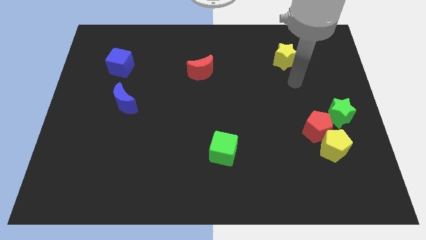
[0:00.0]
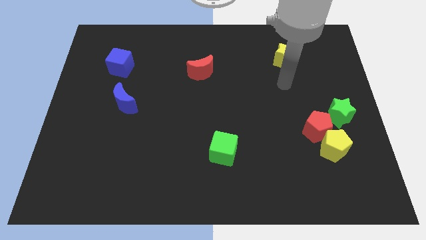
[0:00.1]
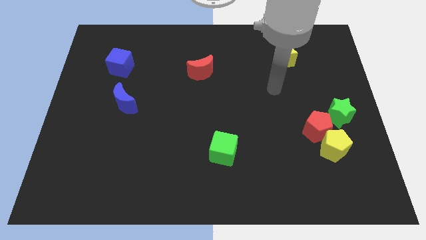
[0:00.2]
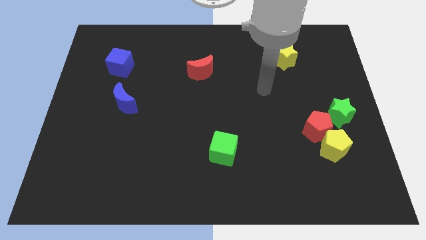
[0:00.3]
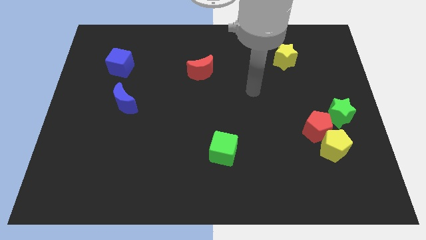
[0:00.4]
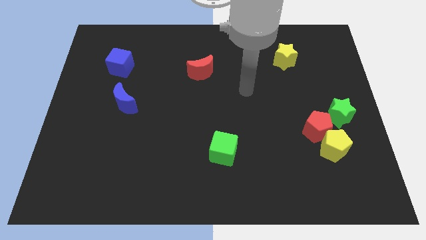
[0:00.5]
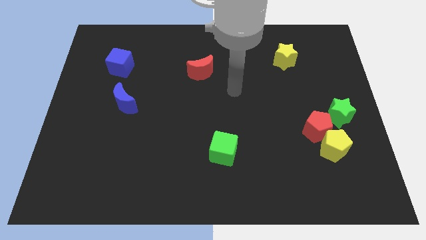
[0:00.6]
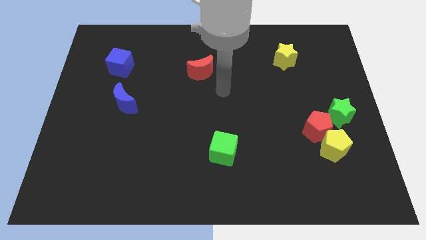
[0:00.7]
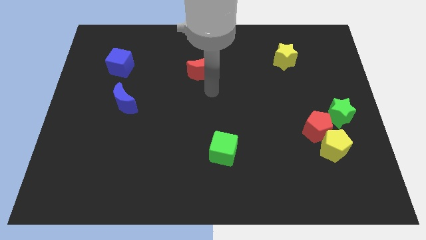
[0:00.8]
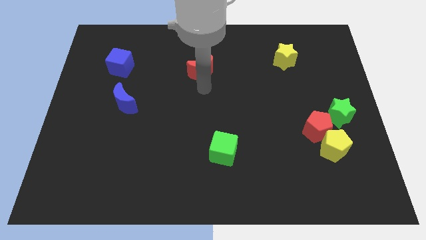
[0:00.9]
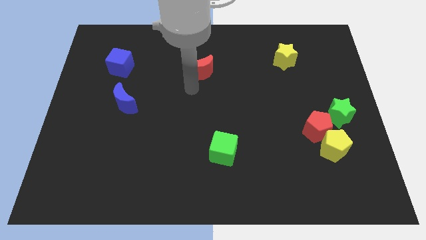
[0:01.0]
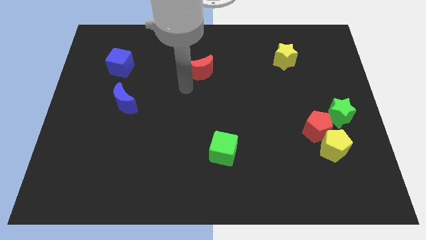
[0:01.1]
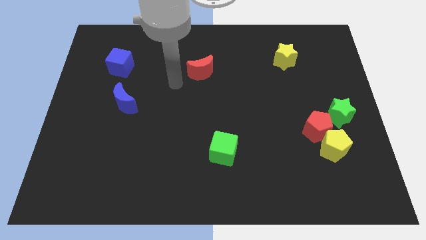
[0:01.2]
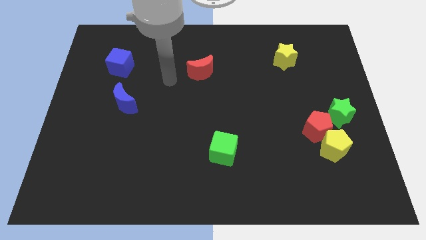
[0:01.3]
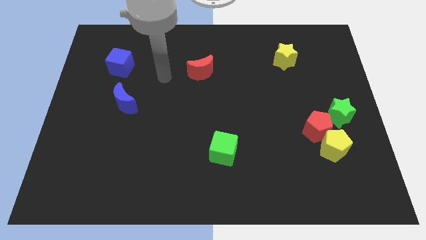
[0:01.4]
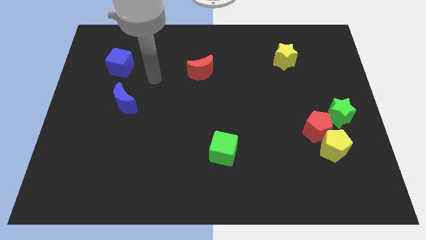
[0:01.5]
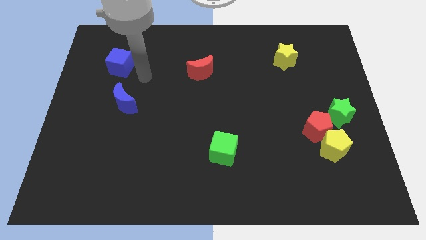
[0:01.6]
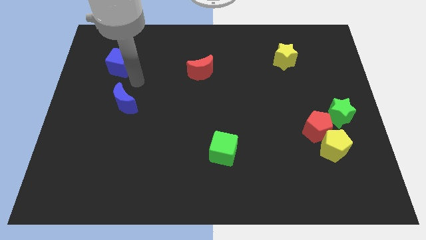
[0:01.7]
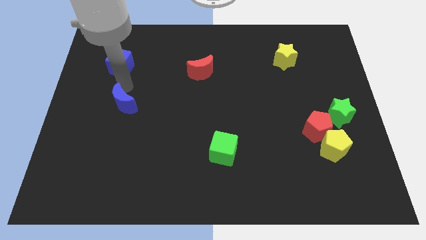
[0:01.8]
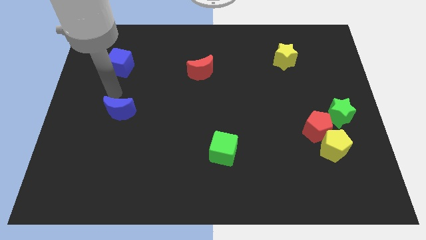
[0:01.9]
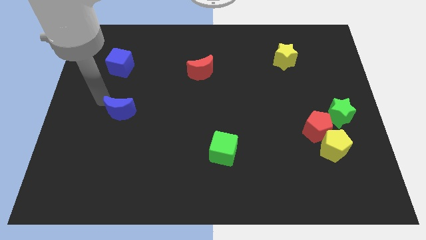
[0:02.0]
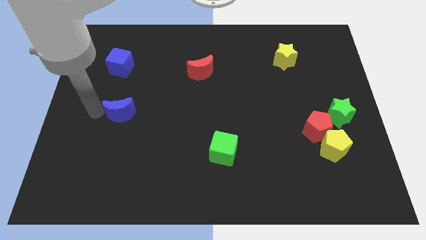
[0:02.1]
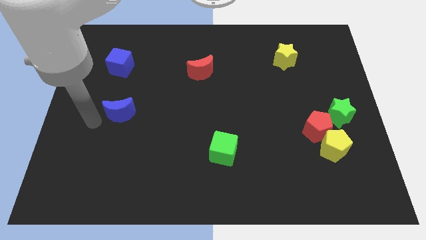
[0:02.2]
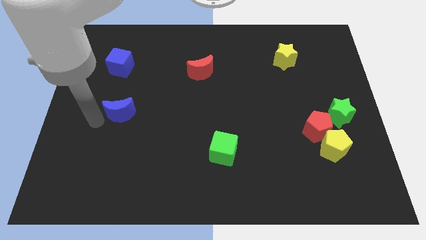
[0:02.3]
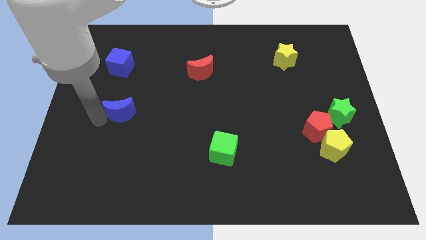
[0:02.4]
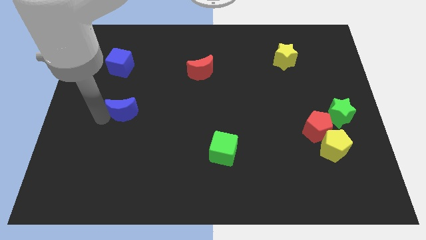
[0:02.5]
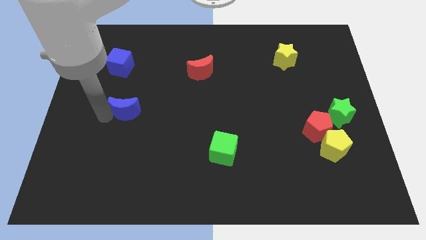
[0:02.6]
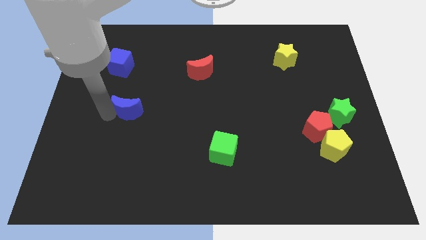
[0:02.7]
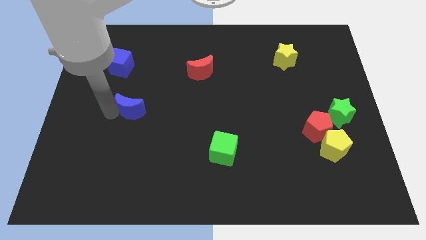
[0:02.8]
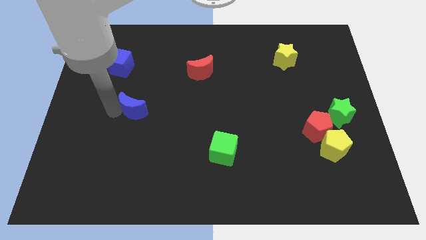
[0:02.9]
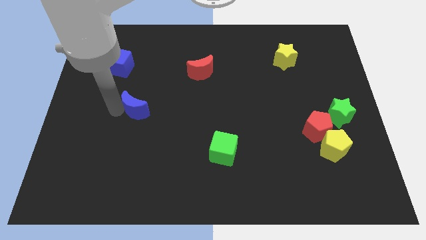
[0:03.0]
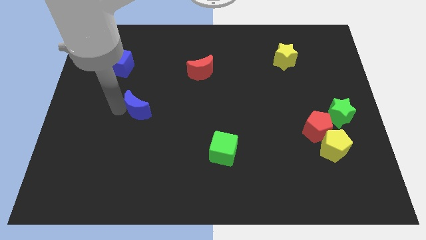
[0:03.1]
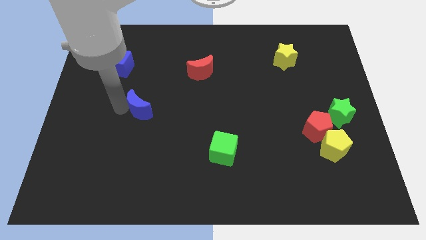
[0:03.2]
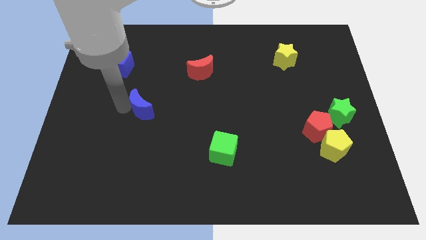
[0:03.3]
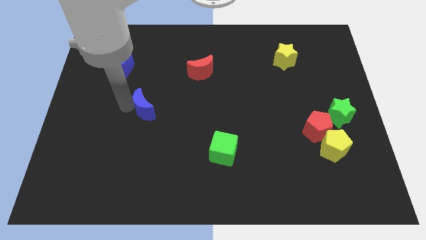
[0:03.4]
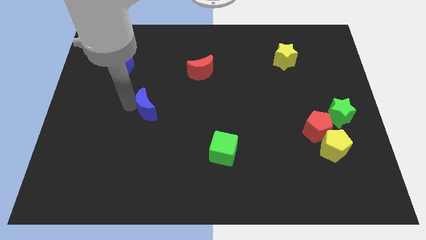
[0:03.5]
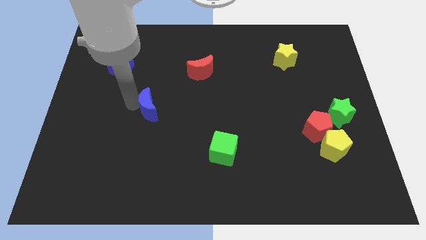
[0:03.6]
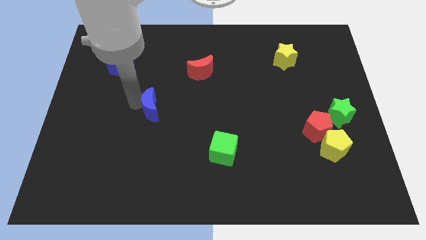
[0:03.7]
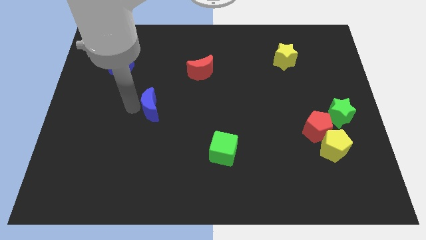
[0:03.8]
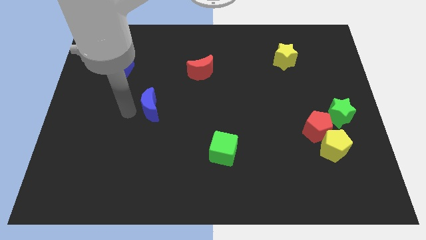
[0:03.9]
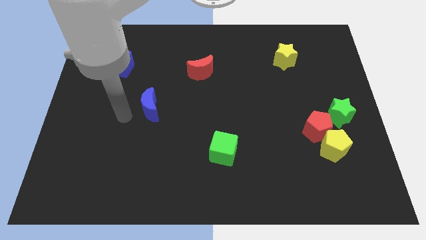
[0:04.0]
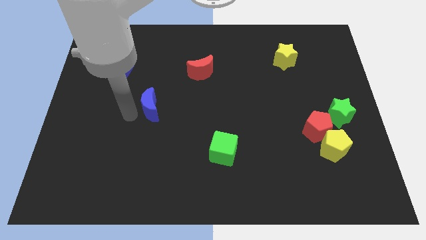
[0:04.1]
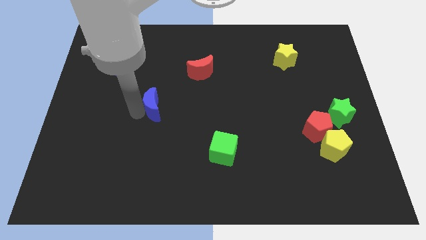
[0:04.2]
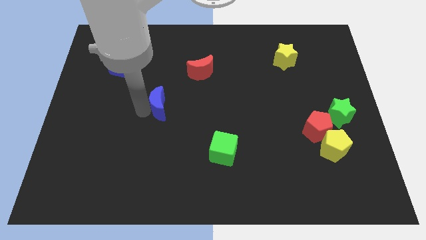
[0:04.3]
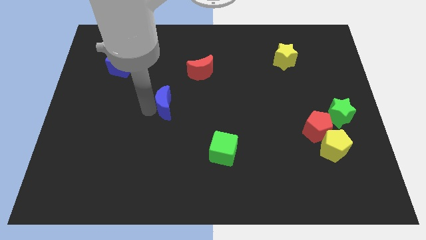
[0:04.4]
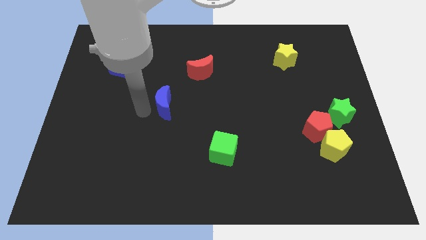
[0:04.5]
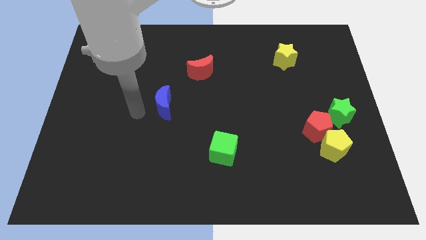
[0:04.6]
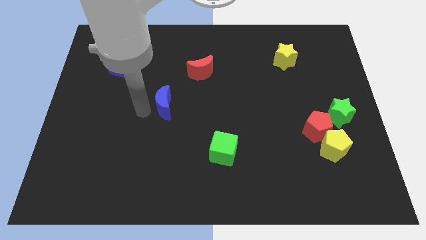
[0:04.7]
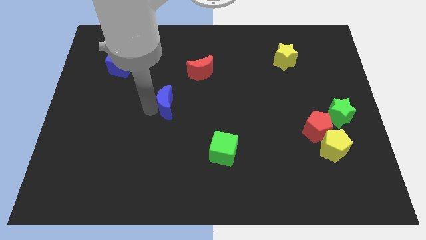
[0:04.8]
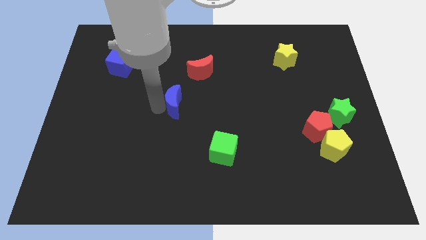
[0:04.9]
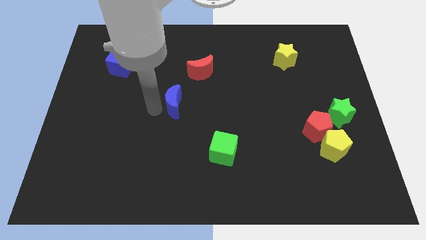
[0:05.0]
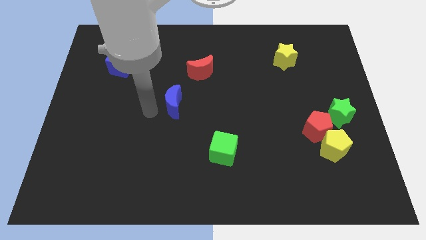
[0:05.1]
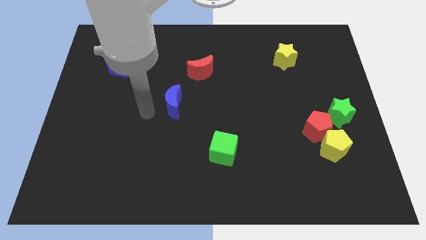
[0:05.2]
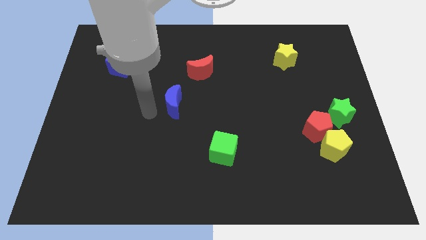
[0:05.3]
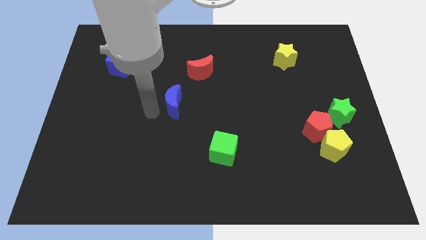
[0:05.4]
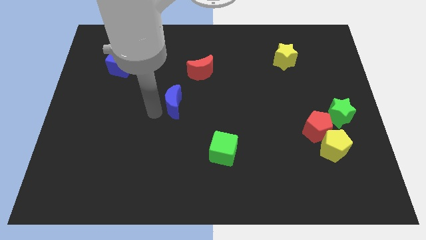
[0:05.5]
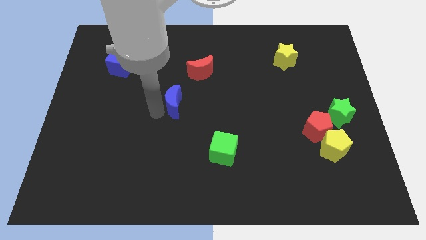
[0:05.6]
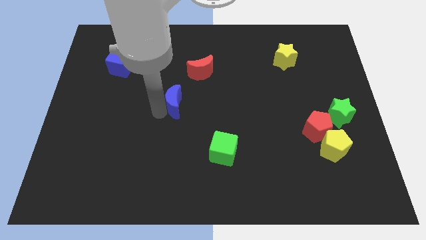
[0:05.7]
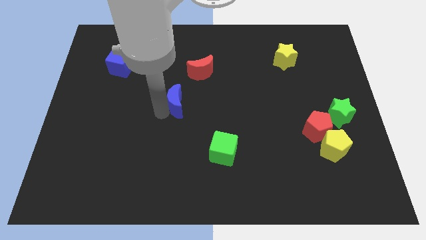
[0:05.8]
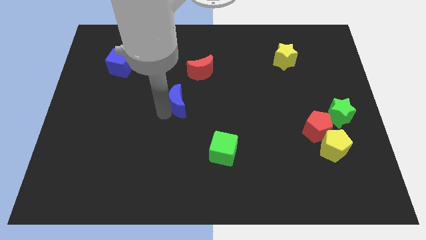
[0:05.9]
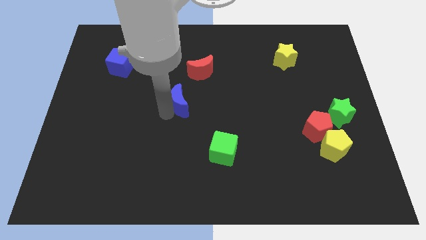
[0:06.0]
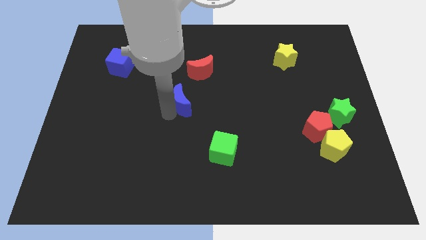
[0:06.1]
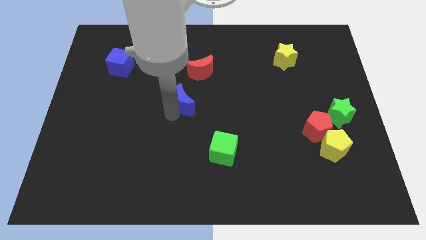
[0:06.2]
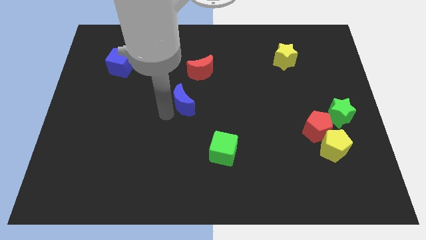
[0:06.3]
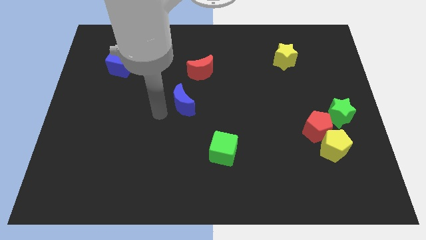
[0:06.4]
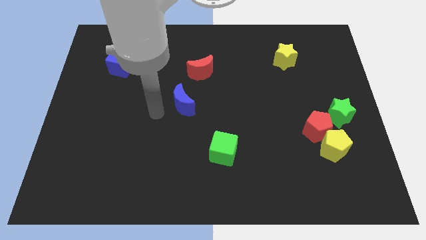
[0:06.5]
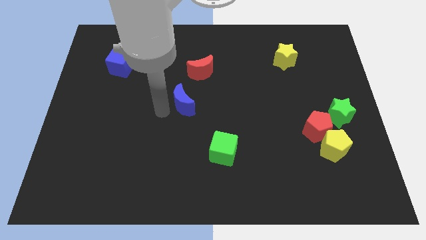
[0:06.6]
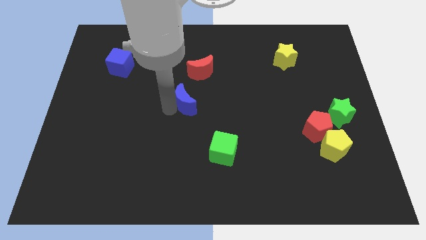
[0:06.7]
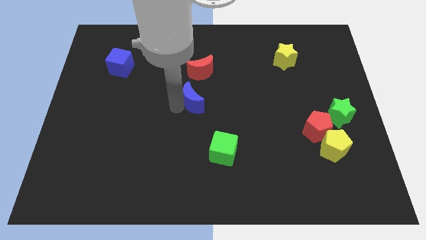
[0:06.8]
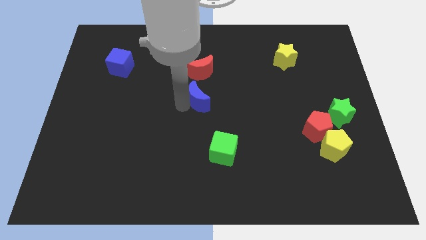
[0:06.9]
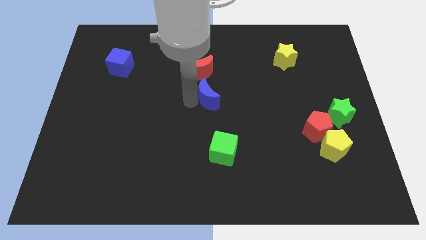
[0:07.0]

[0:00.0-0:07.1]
push the blue moon to the right

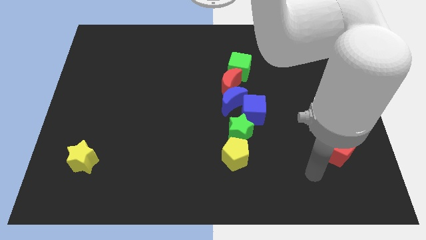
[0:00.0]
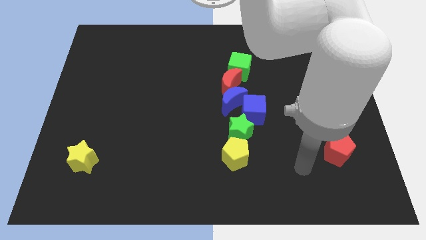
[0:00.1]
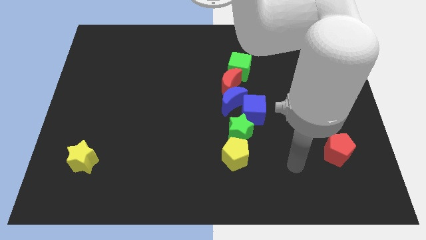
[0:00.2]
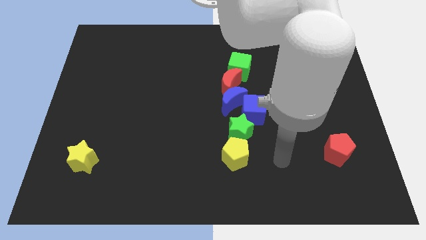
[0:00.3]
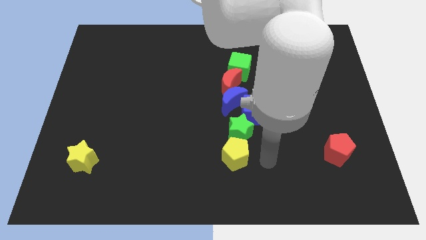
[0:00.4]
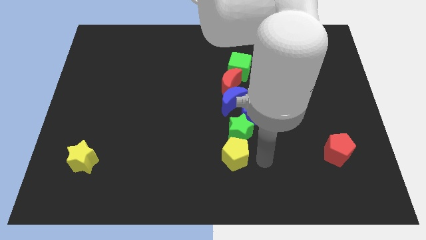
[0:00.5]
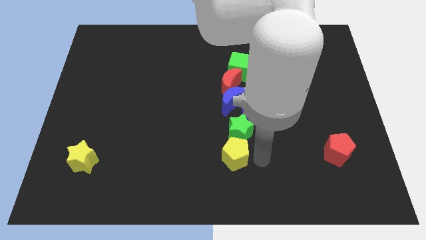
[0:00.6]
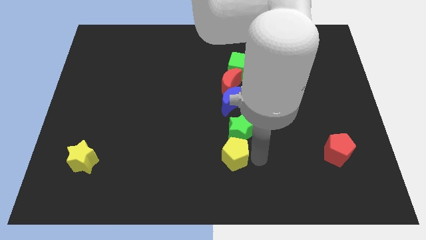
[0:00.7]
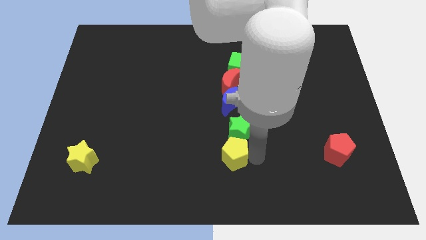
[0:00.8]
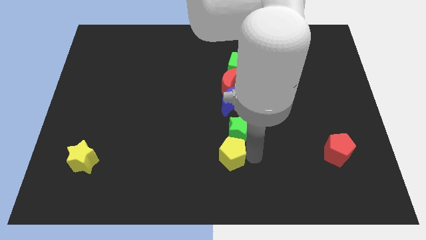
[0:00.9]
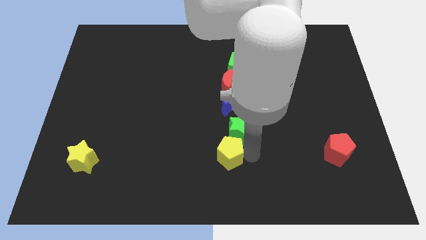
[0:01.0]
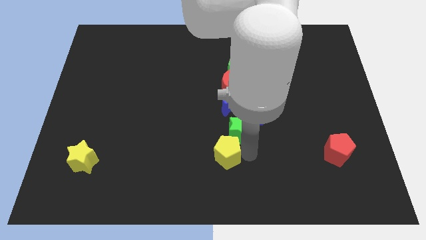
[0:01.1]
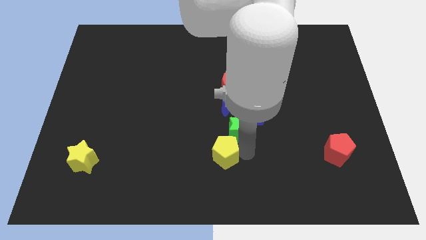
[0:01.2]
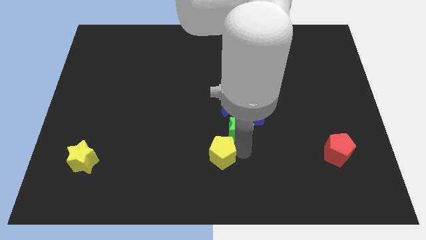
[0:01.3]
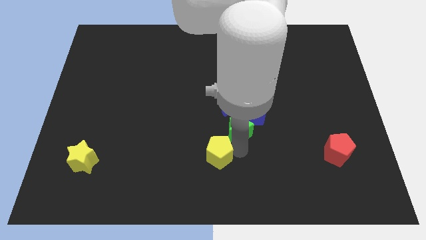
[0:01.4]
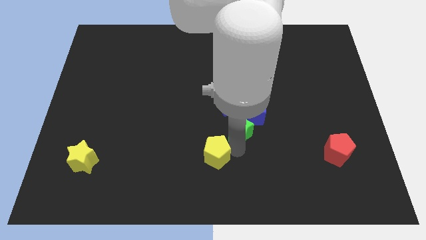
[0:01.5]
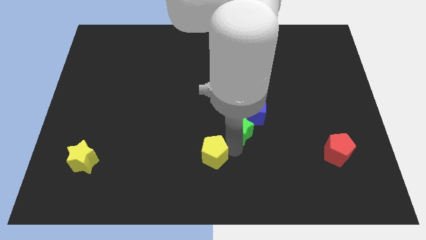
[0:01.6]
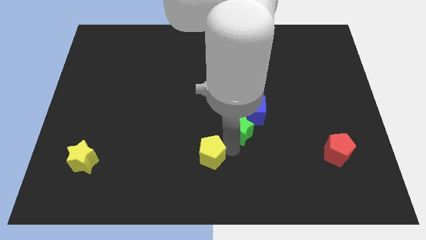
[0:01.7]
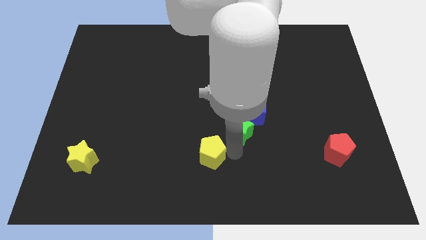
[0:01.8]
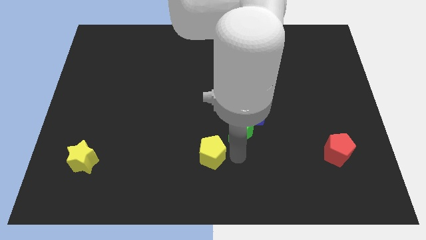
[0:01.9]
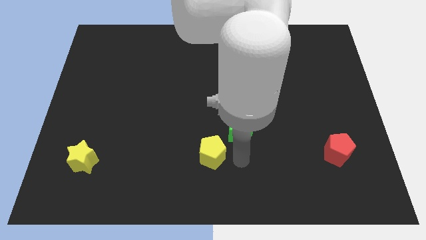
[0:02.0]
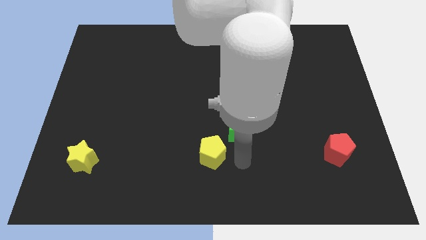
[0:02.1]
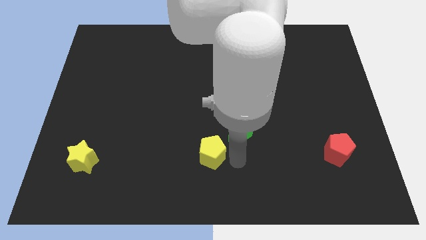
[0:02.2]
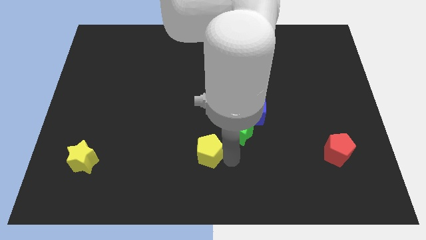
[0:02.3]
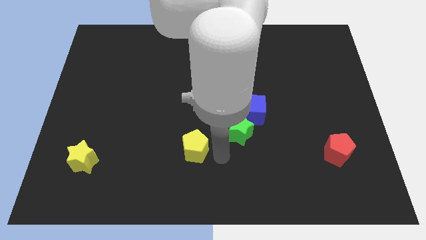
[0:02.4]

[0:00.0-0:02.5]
move the yellow pentagon left somewhat
